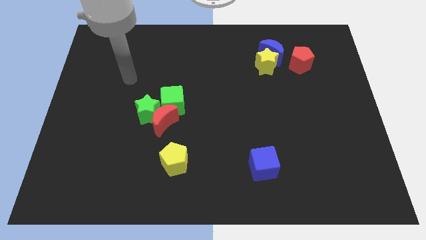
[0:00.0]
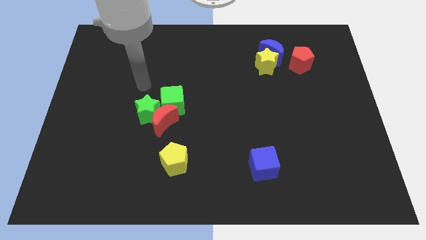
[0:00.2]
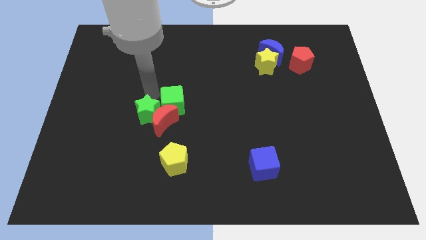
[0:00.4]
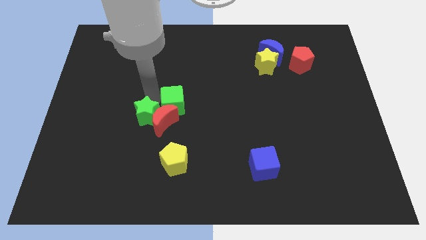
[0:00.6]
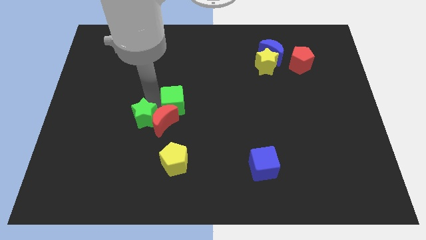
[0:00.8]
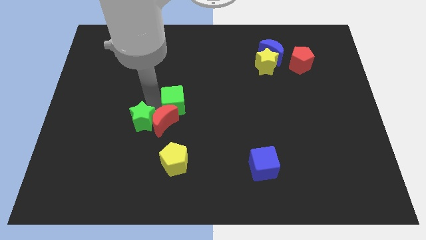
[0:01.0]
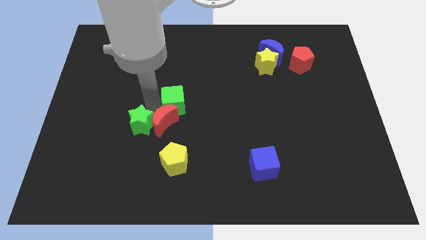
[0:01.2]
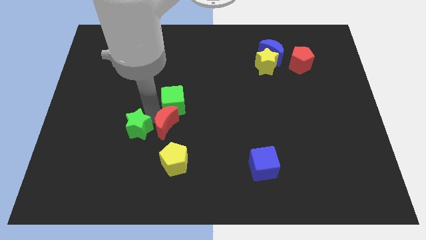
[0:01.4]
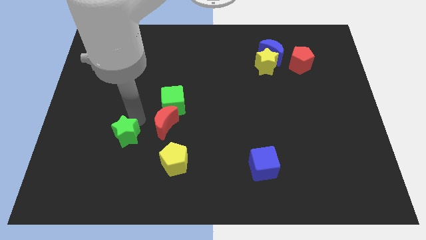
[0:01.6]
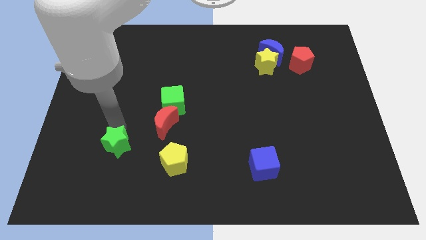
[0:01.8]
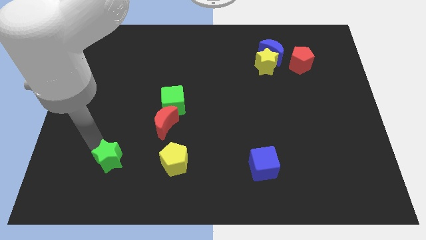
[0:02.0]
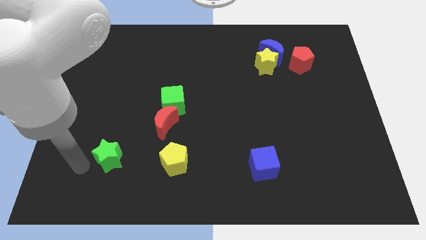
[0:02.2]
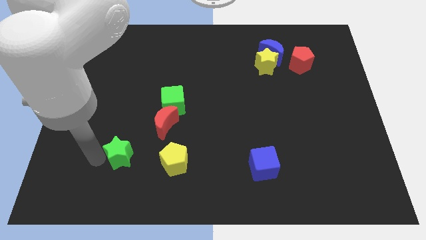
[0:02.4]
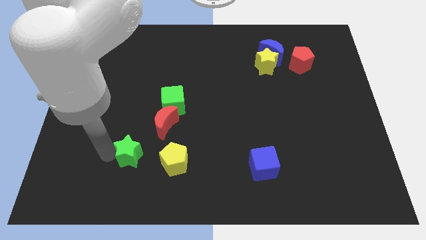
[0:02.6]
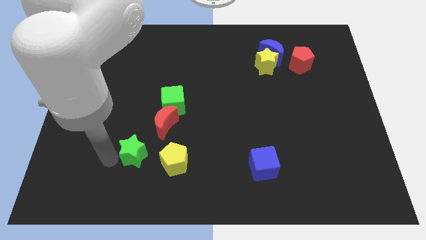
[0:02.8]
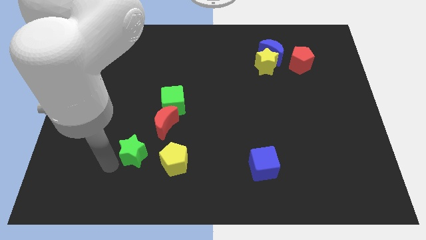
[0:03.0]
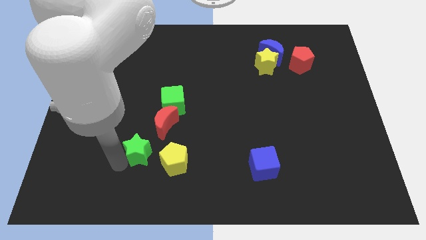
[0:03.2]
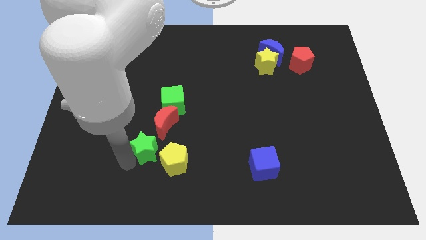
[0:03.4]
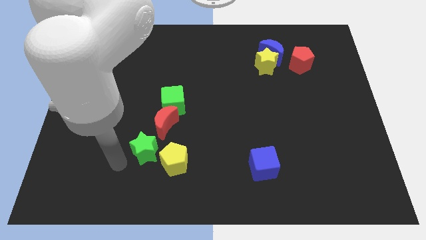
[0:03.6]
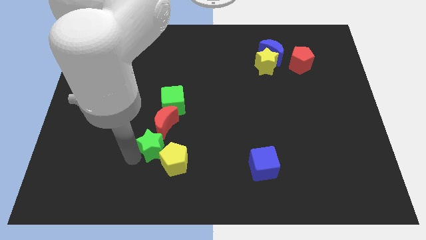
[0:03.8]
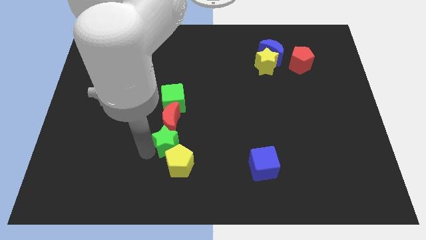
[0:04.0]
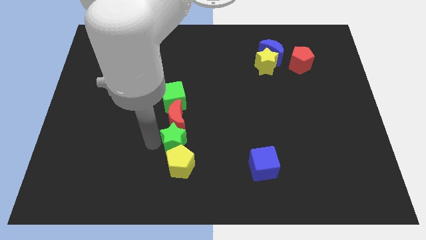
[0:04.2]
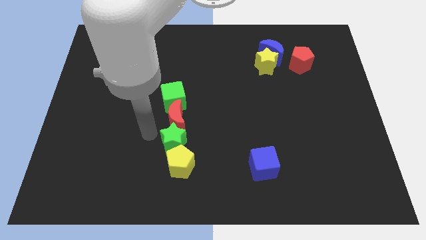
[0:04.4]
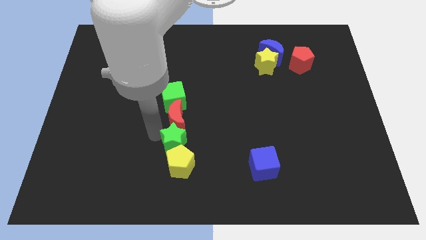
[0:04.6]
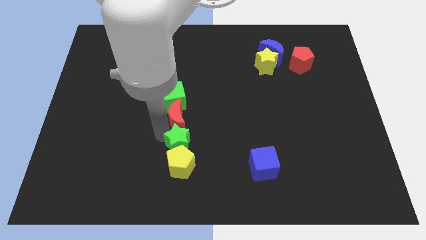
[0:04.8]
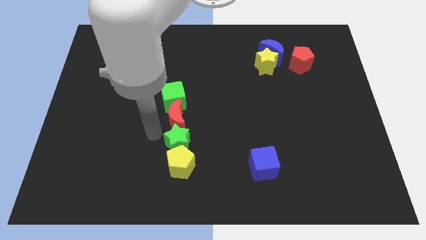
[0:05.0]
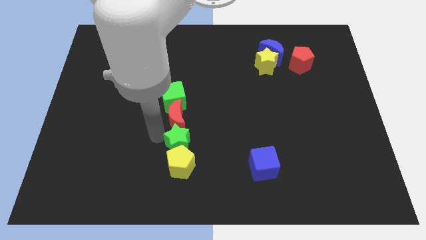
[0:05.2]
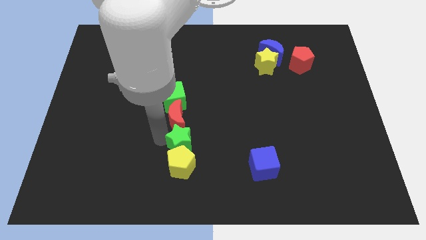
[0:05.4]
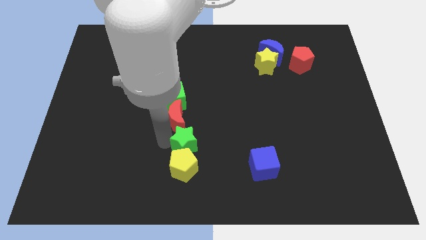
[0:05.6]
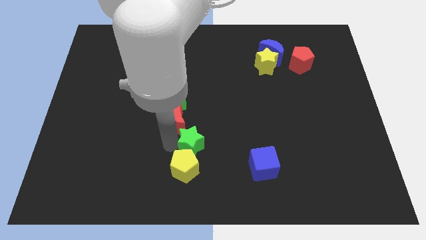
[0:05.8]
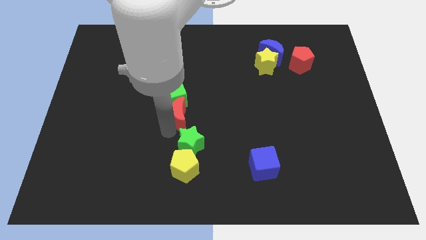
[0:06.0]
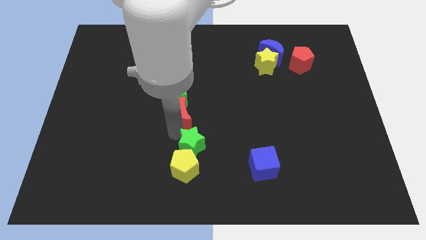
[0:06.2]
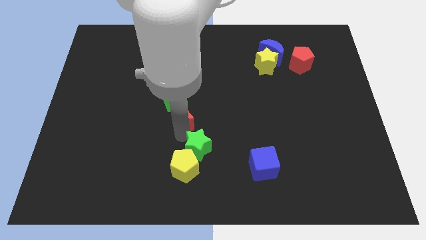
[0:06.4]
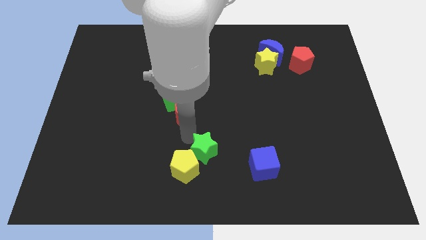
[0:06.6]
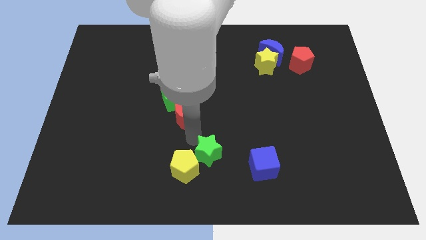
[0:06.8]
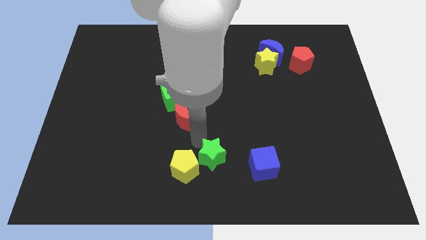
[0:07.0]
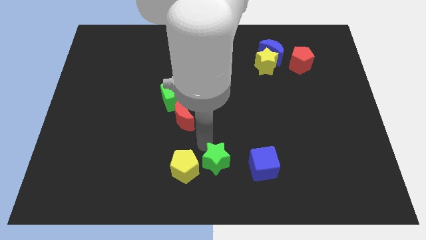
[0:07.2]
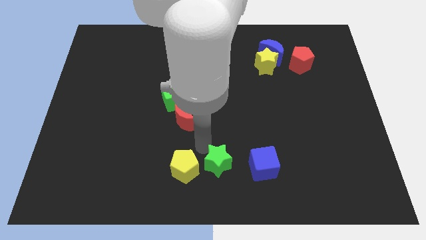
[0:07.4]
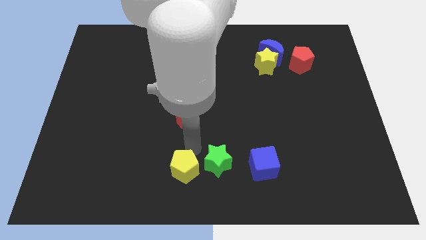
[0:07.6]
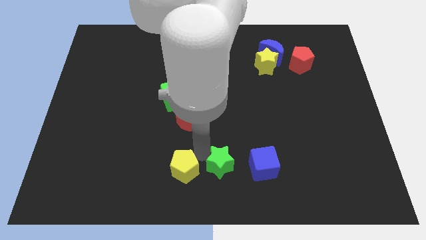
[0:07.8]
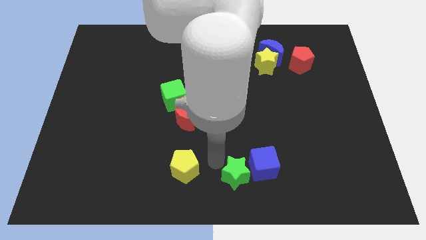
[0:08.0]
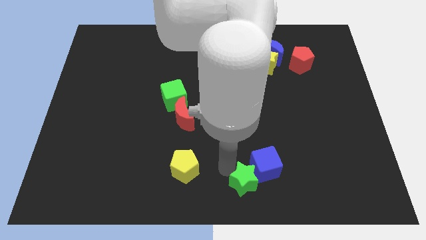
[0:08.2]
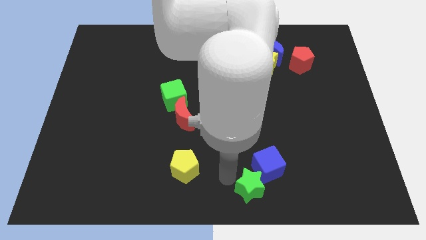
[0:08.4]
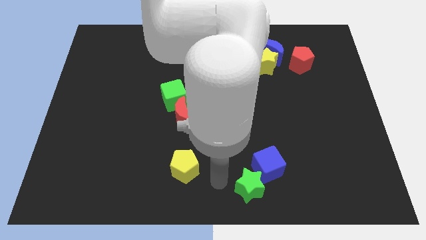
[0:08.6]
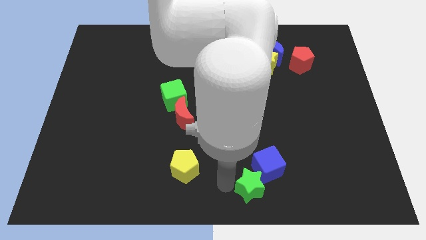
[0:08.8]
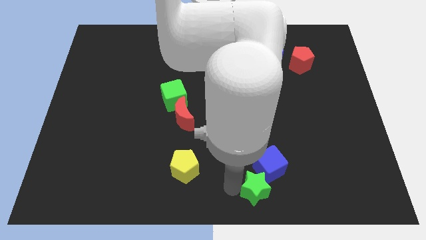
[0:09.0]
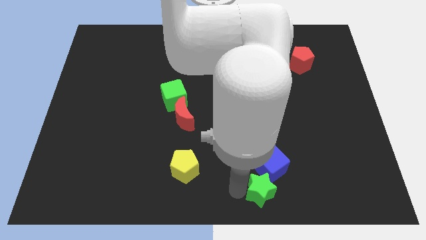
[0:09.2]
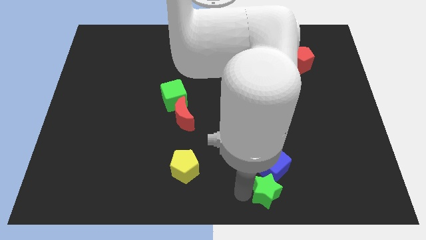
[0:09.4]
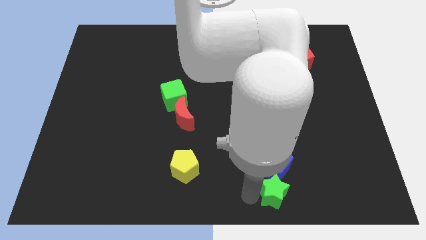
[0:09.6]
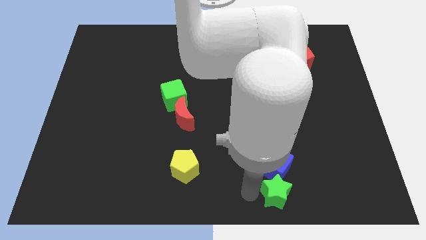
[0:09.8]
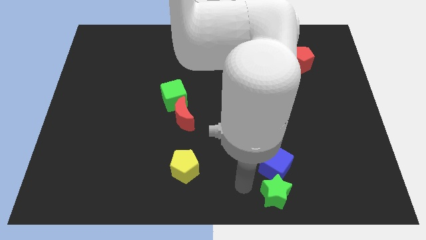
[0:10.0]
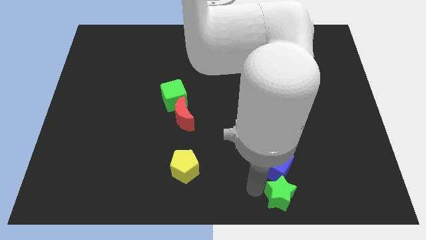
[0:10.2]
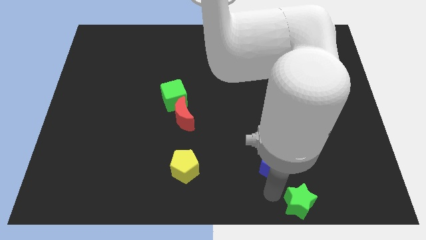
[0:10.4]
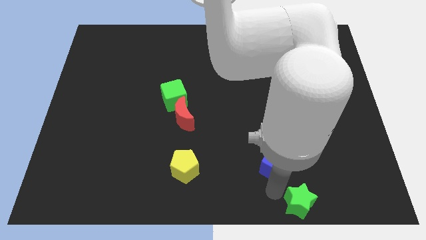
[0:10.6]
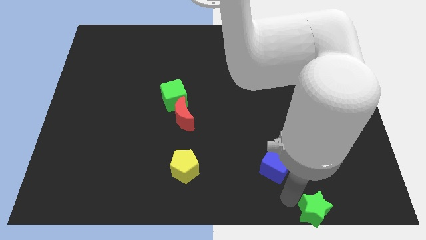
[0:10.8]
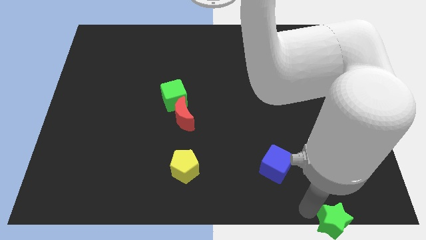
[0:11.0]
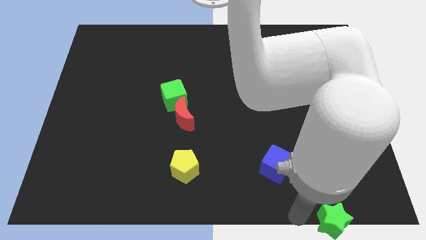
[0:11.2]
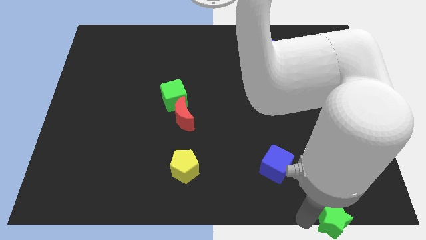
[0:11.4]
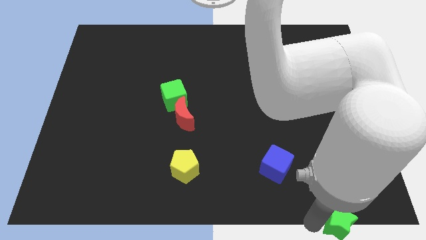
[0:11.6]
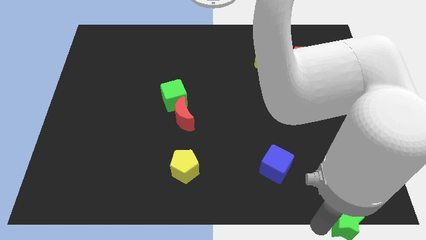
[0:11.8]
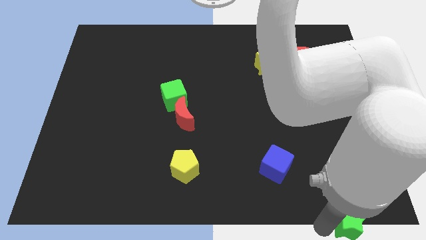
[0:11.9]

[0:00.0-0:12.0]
put the green star to the bottom right
